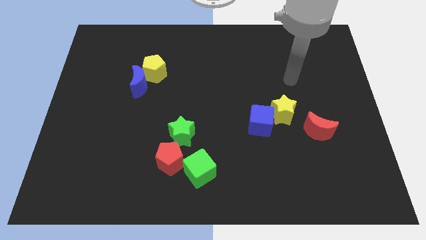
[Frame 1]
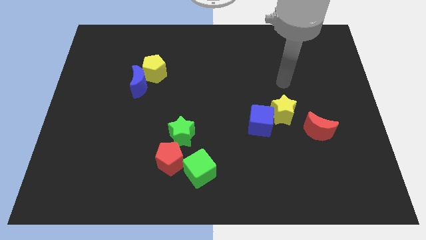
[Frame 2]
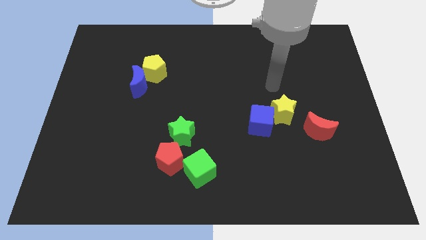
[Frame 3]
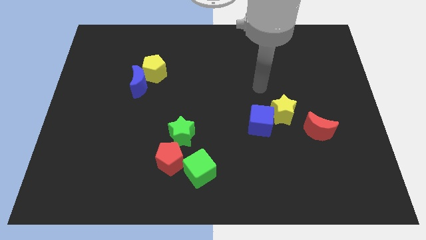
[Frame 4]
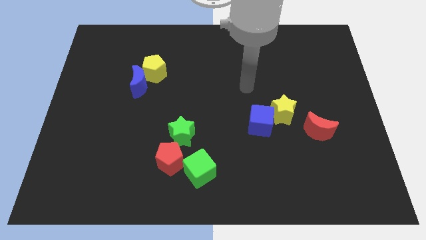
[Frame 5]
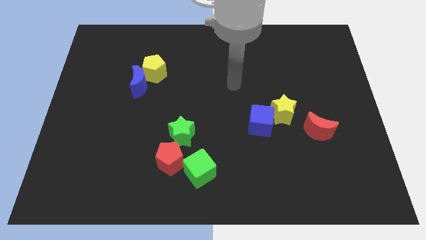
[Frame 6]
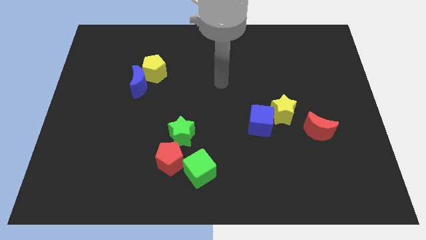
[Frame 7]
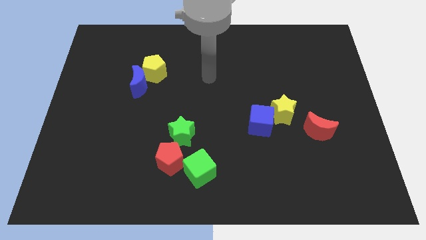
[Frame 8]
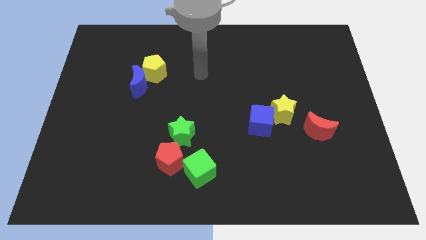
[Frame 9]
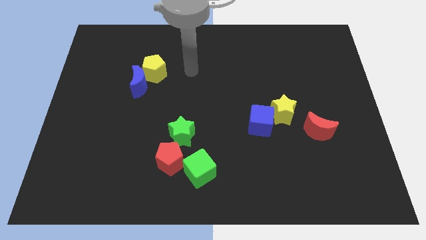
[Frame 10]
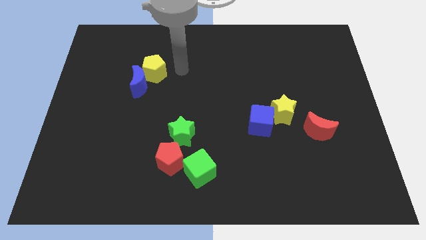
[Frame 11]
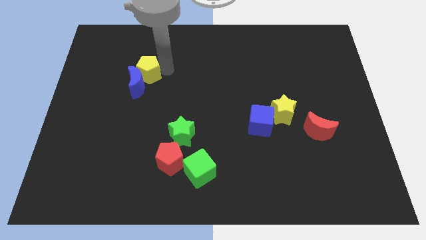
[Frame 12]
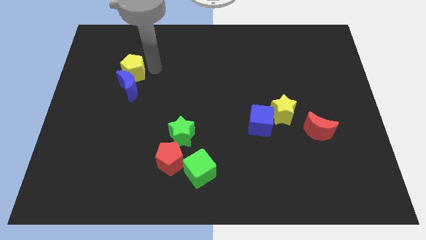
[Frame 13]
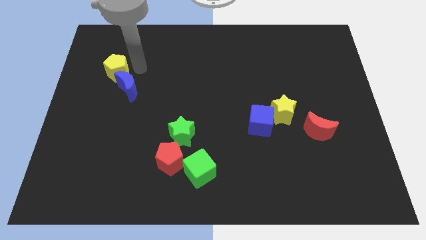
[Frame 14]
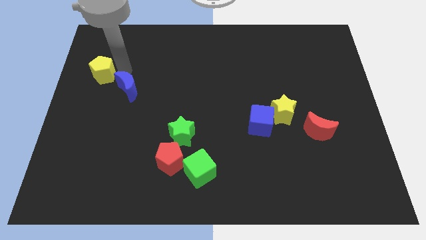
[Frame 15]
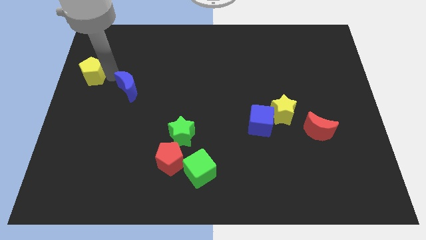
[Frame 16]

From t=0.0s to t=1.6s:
pull the blue moon apart from the yellow pentagon

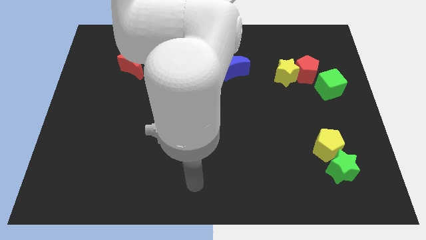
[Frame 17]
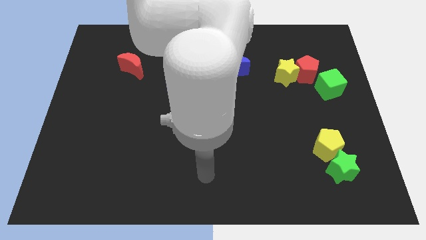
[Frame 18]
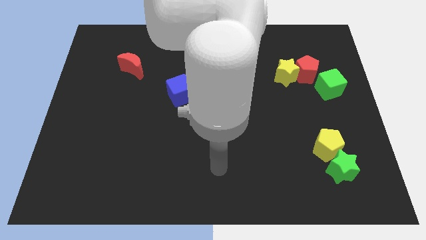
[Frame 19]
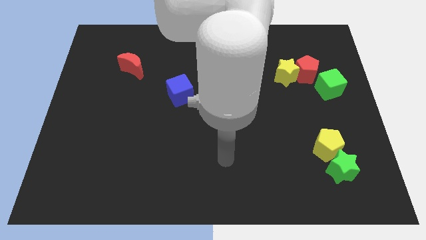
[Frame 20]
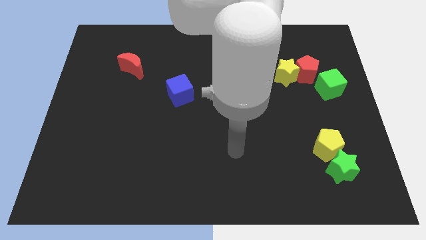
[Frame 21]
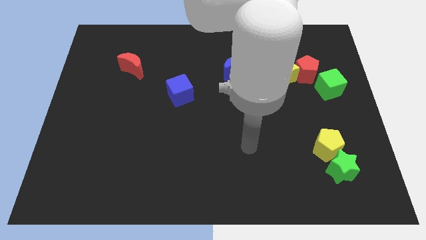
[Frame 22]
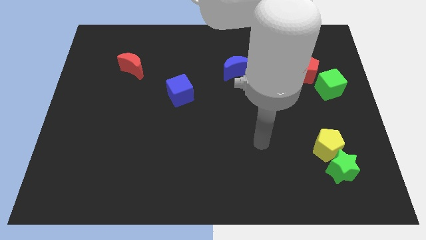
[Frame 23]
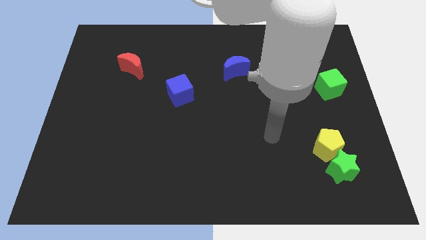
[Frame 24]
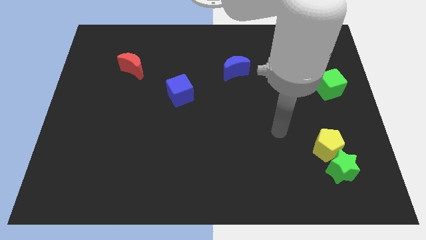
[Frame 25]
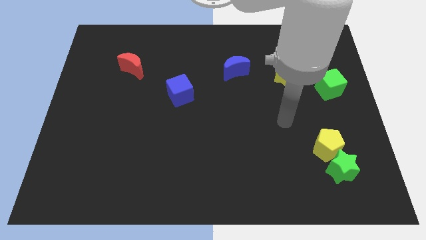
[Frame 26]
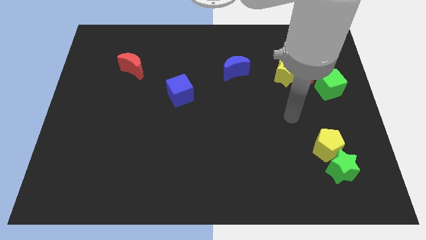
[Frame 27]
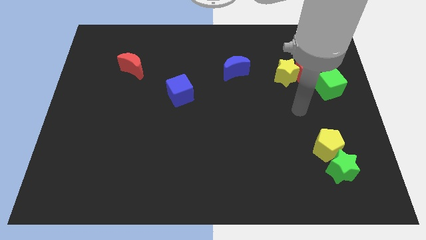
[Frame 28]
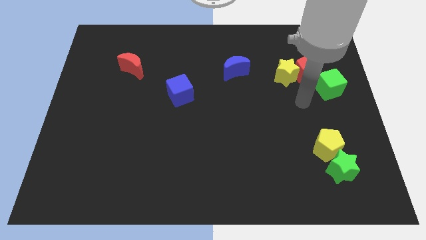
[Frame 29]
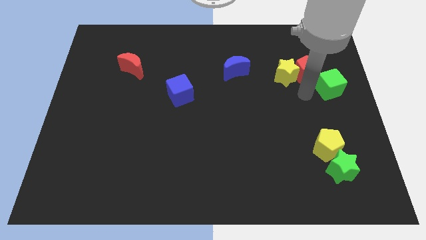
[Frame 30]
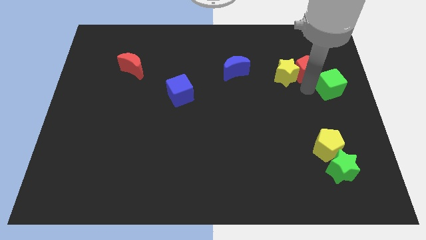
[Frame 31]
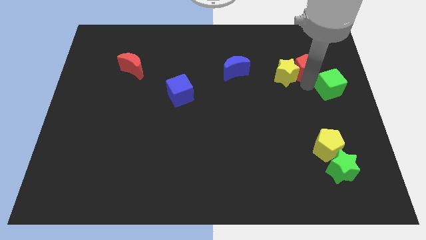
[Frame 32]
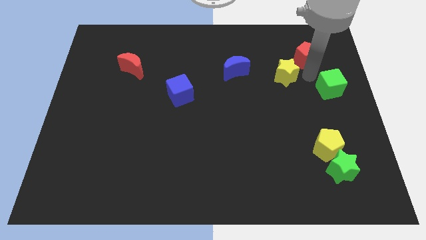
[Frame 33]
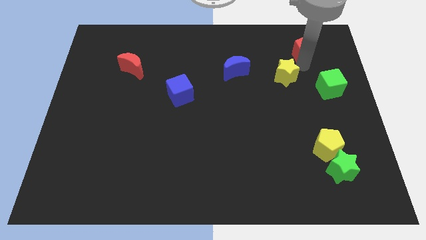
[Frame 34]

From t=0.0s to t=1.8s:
separate the yellow star from the red pentagon

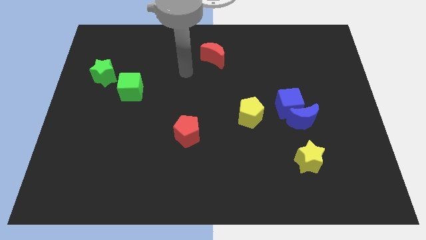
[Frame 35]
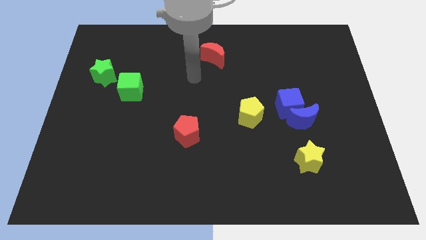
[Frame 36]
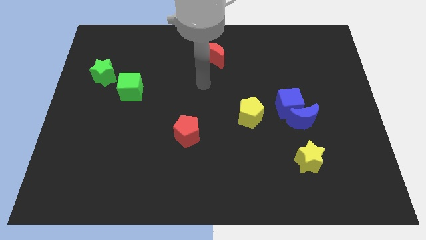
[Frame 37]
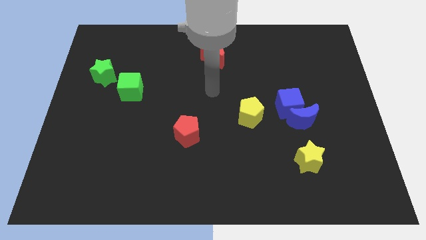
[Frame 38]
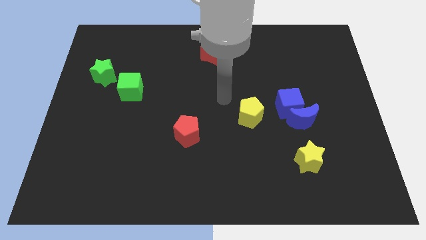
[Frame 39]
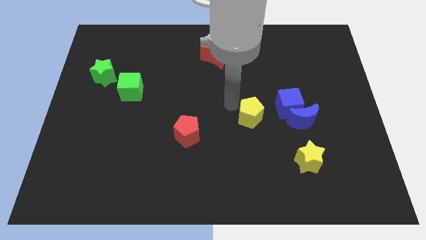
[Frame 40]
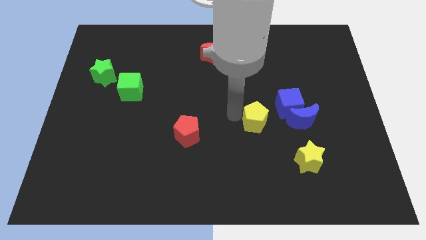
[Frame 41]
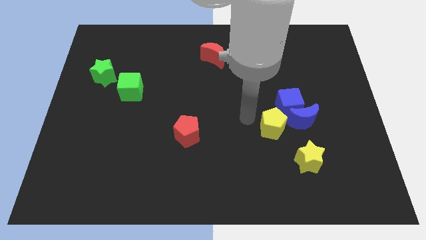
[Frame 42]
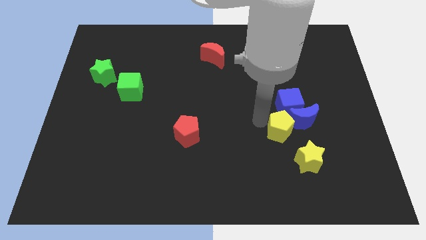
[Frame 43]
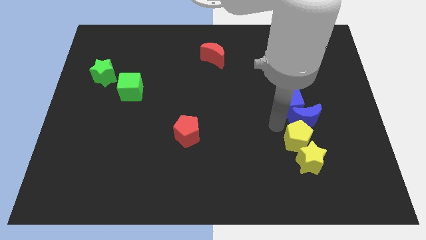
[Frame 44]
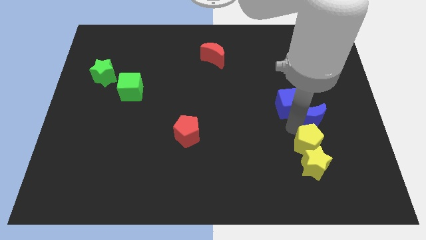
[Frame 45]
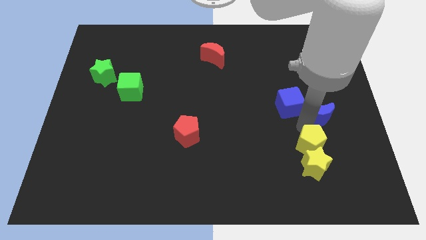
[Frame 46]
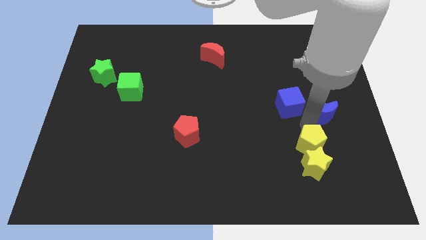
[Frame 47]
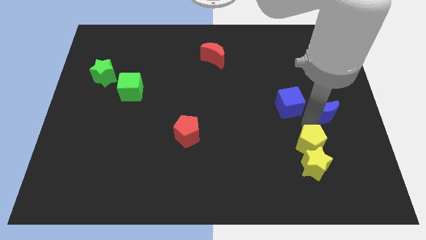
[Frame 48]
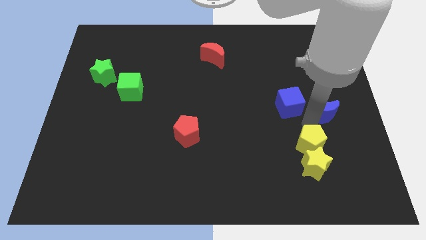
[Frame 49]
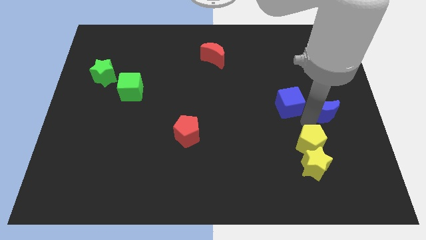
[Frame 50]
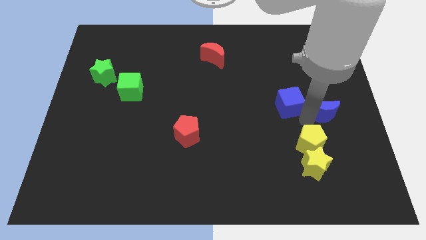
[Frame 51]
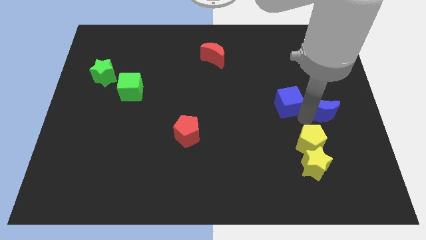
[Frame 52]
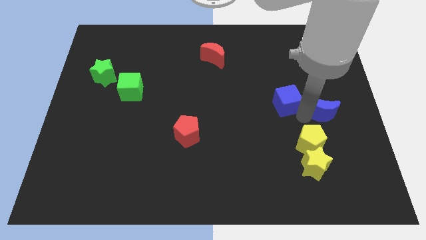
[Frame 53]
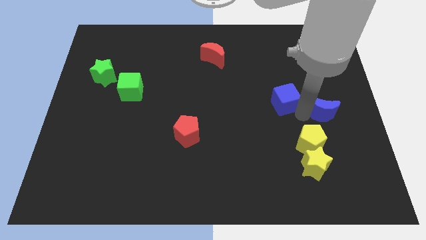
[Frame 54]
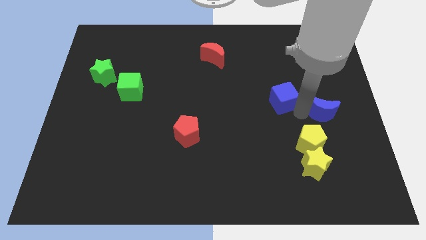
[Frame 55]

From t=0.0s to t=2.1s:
pull the blue cube apart from the blue moon and yellow pentagon

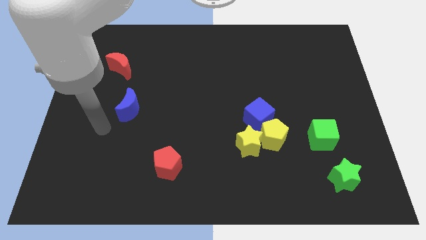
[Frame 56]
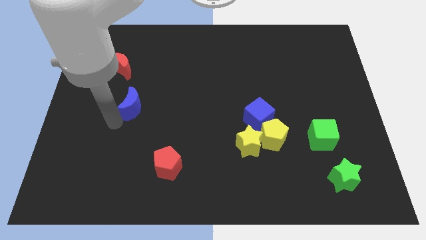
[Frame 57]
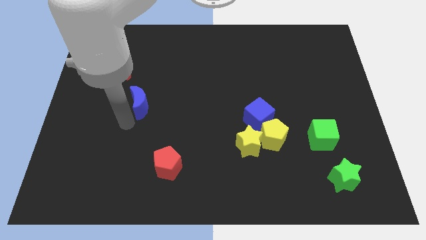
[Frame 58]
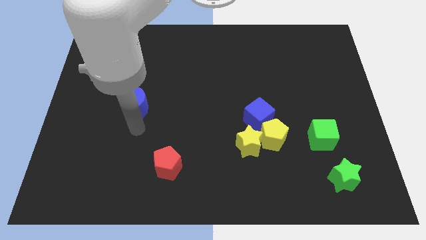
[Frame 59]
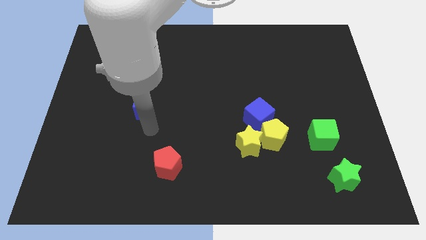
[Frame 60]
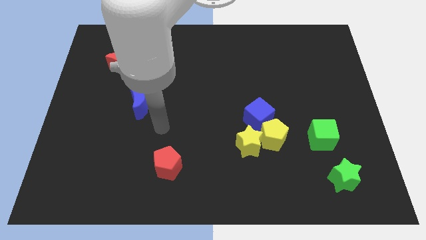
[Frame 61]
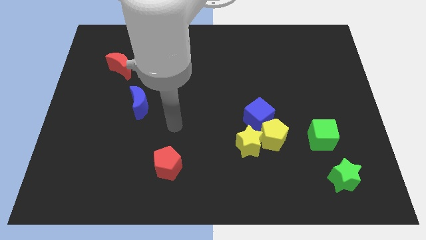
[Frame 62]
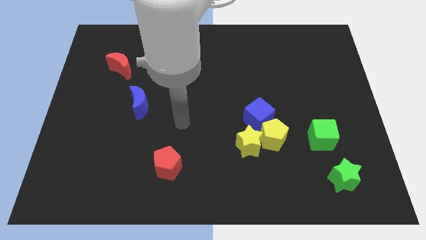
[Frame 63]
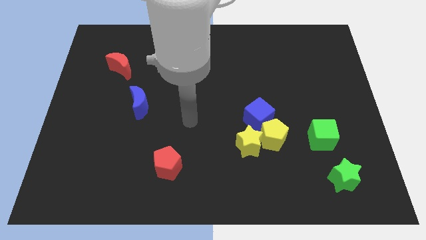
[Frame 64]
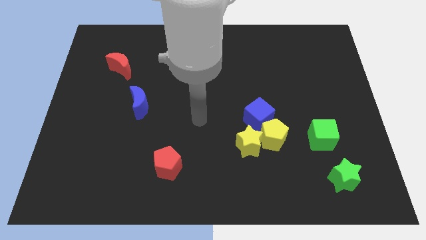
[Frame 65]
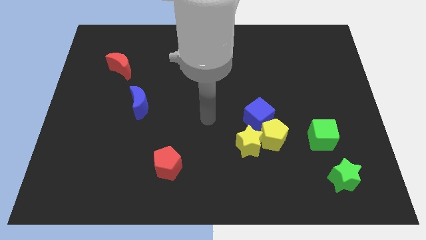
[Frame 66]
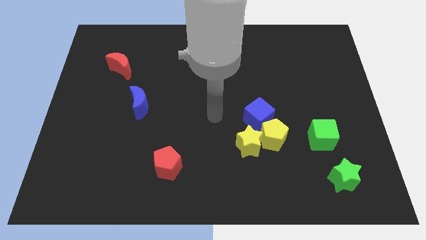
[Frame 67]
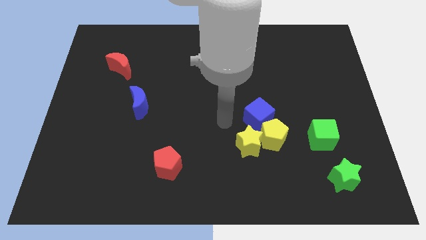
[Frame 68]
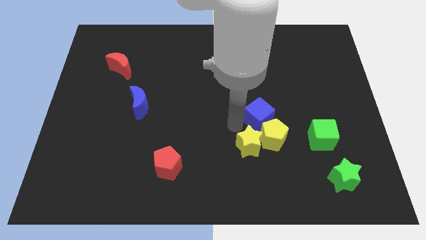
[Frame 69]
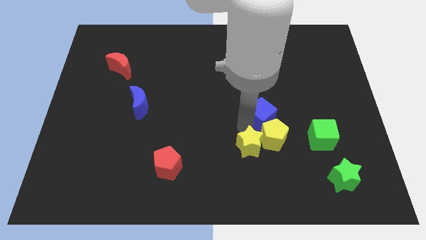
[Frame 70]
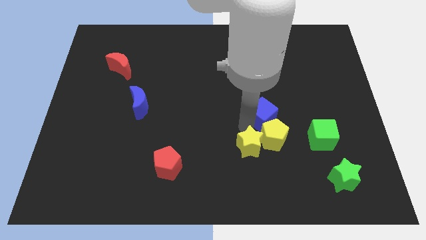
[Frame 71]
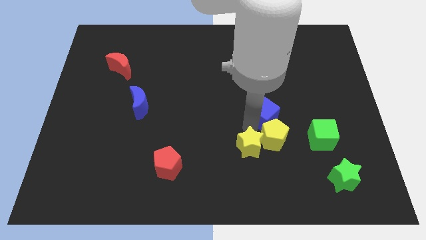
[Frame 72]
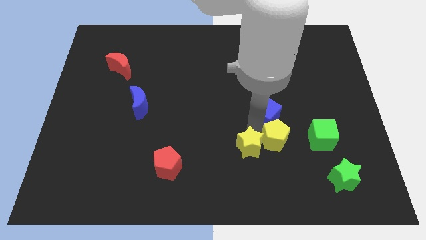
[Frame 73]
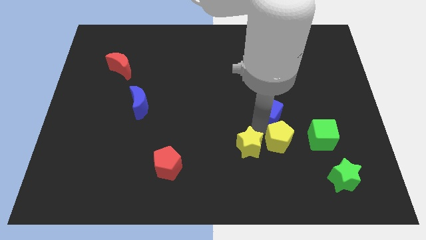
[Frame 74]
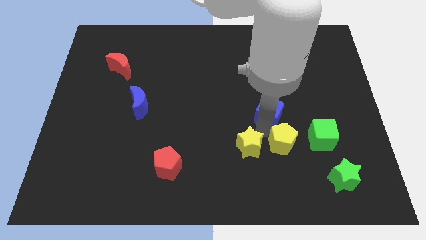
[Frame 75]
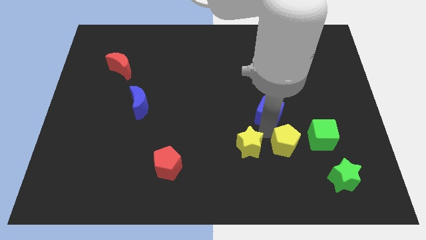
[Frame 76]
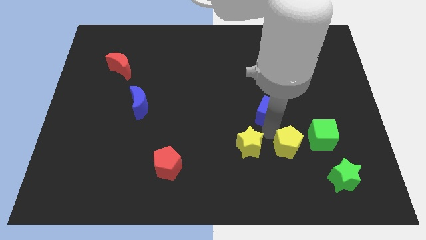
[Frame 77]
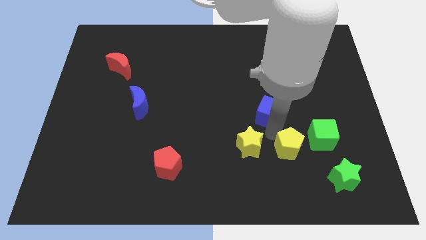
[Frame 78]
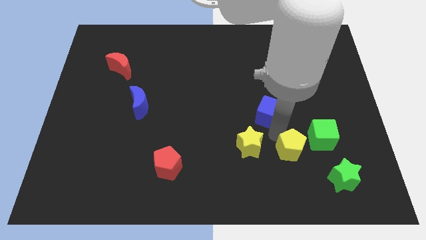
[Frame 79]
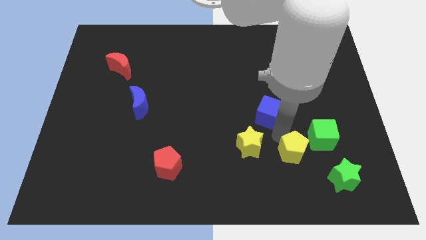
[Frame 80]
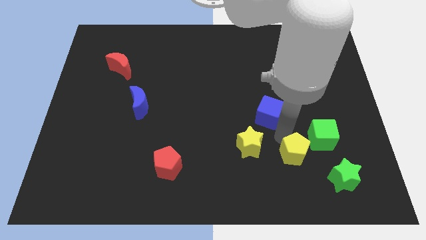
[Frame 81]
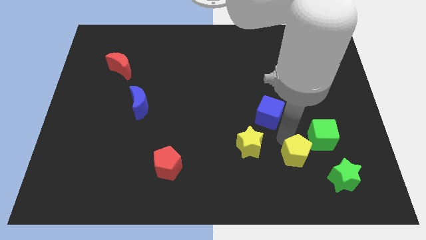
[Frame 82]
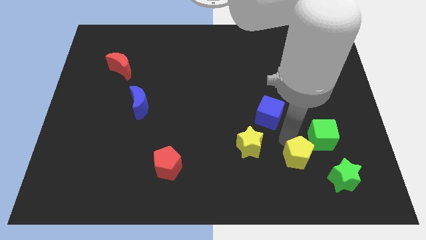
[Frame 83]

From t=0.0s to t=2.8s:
move the yellow pentagon away from the yellow star and blue cube

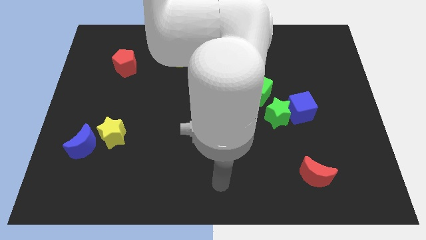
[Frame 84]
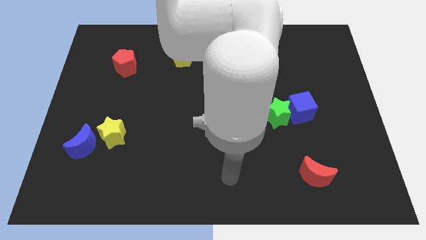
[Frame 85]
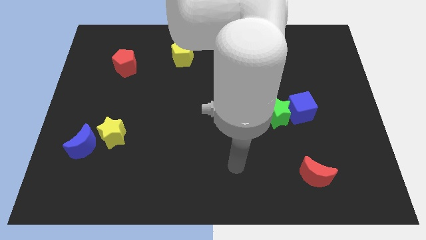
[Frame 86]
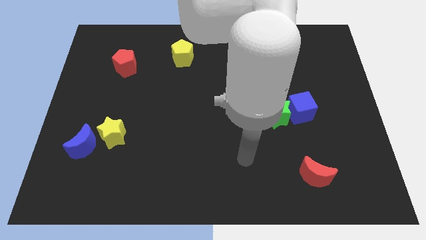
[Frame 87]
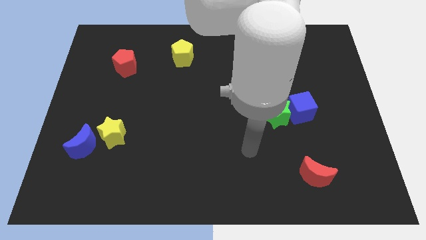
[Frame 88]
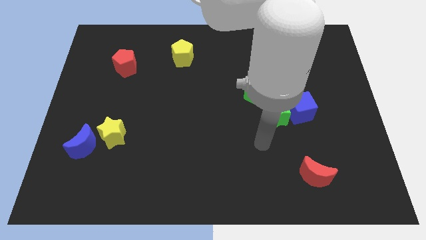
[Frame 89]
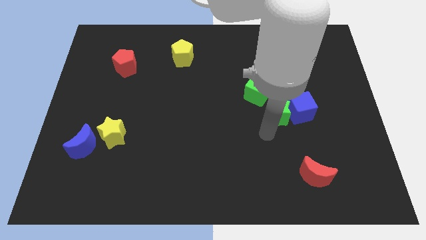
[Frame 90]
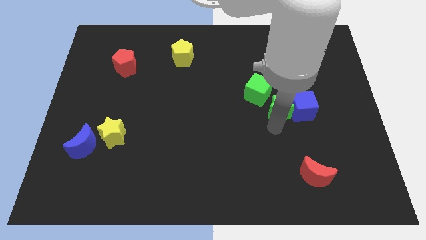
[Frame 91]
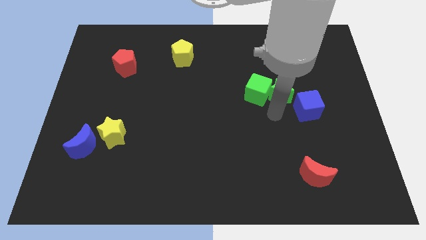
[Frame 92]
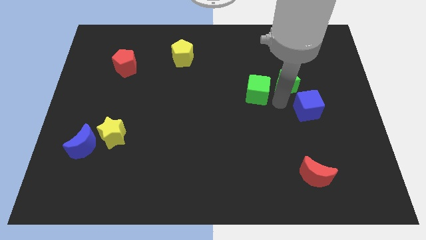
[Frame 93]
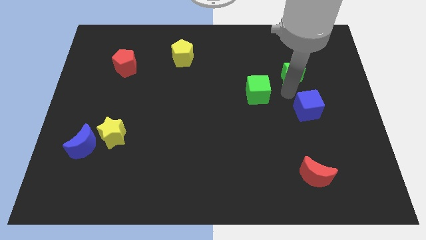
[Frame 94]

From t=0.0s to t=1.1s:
pull the blue cube apart from the green star
